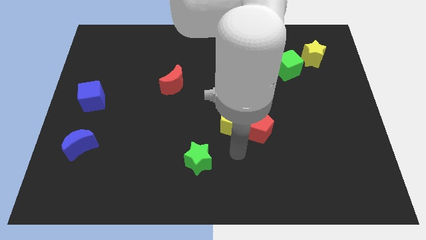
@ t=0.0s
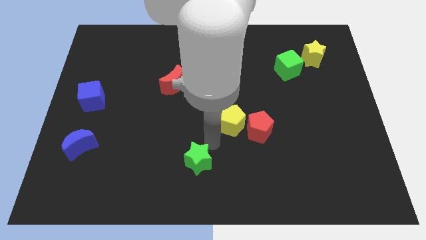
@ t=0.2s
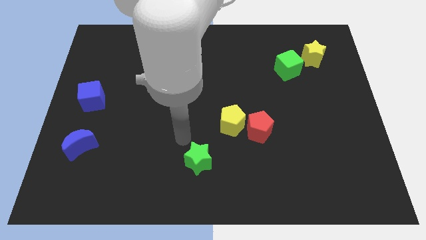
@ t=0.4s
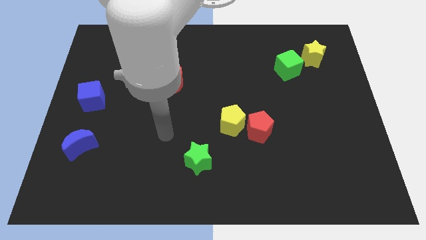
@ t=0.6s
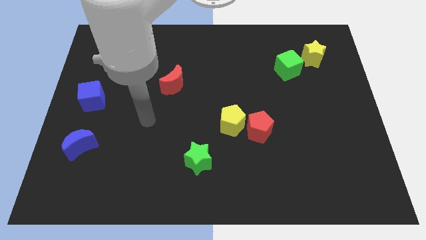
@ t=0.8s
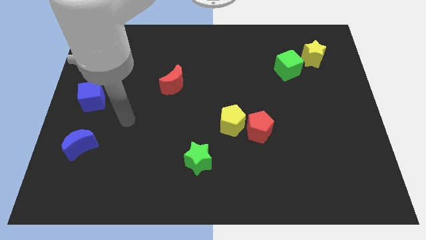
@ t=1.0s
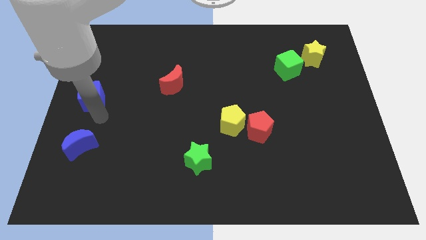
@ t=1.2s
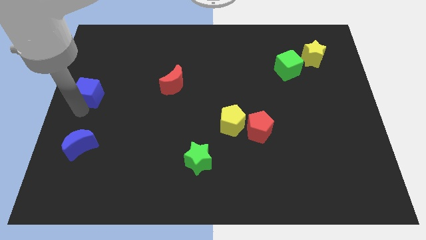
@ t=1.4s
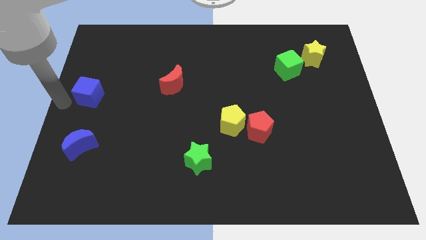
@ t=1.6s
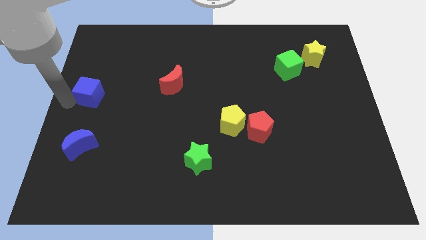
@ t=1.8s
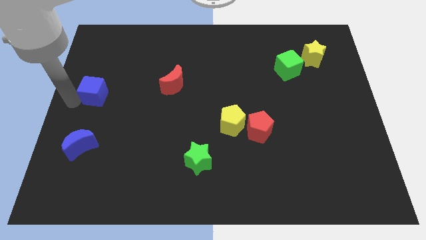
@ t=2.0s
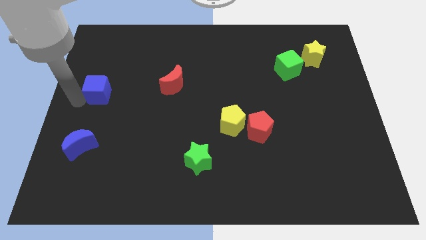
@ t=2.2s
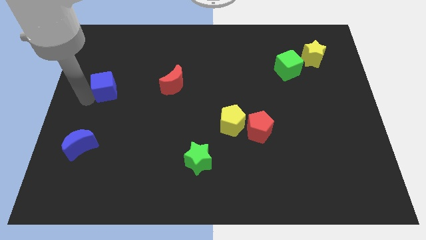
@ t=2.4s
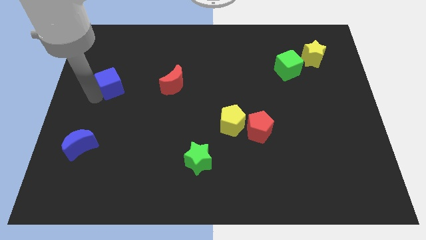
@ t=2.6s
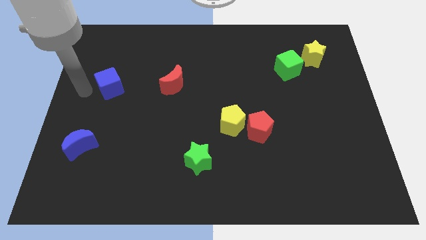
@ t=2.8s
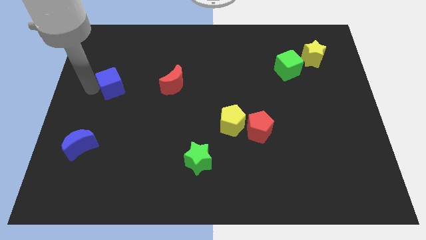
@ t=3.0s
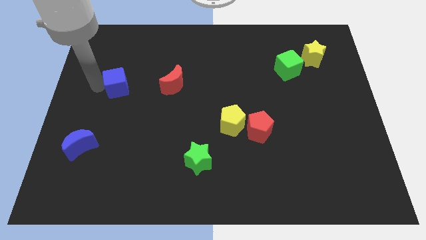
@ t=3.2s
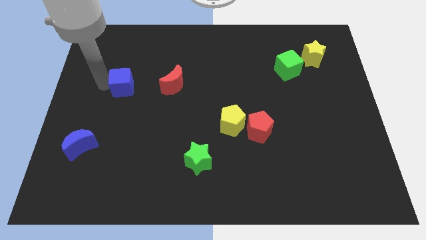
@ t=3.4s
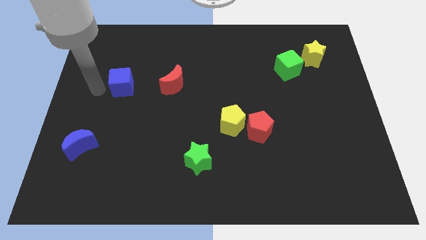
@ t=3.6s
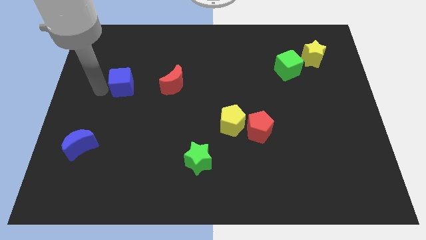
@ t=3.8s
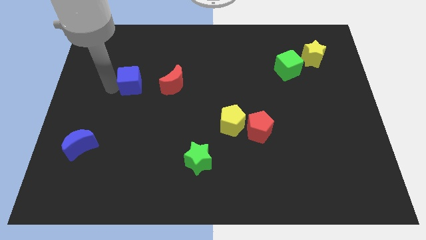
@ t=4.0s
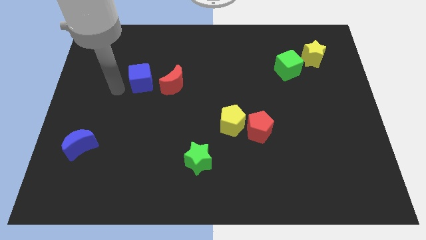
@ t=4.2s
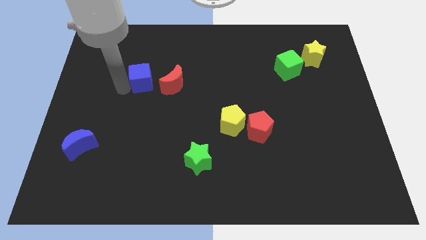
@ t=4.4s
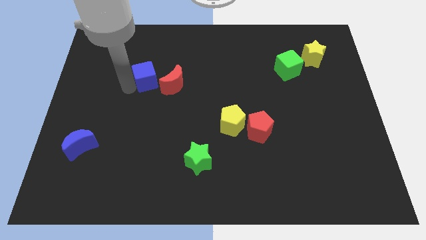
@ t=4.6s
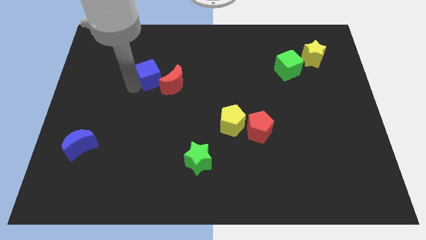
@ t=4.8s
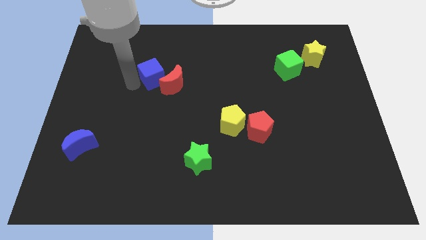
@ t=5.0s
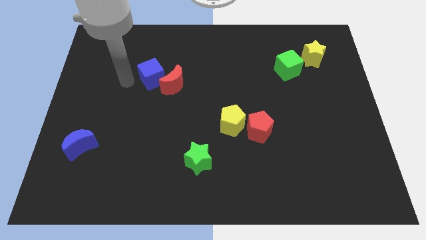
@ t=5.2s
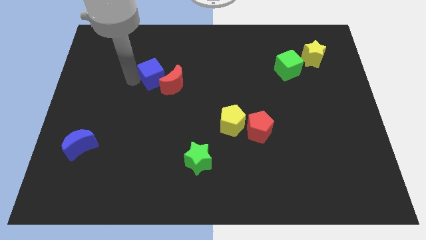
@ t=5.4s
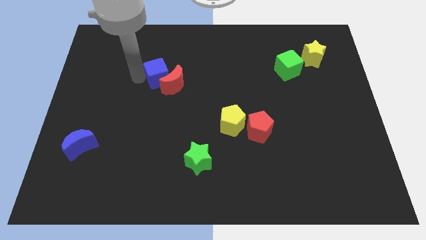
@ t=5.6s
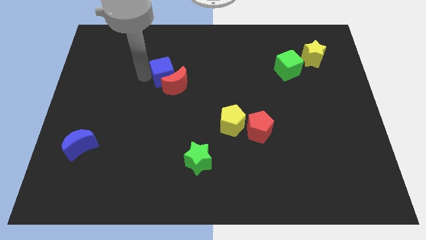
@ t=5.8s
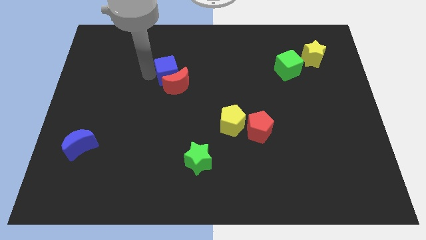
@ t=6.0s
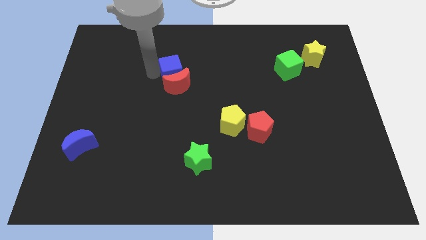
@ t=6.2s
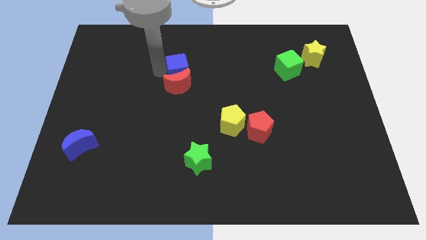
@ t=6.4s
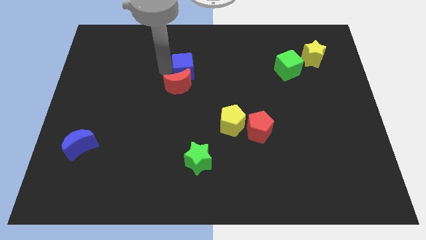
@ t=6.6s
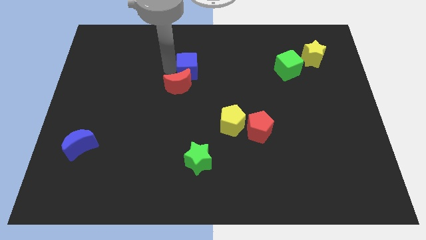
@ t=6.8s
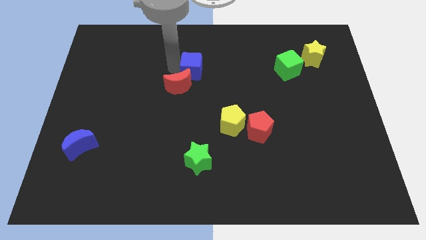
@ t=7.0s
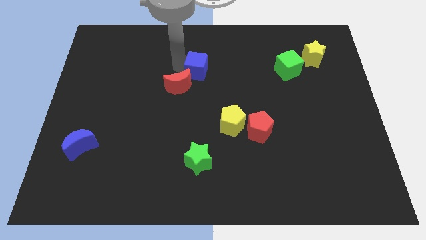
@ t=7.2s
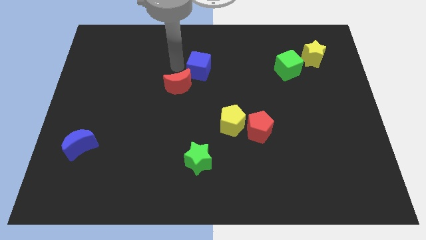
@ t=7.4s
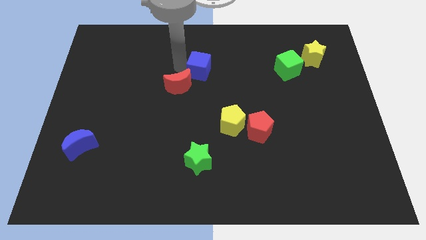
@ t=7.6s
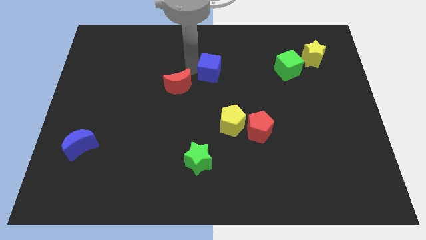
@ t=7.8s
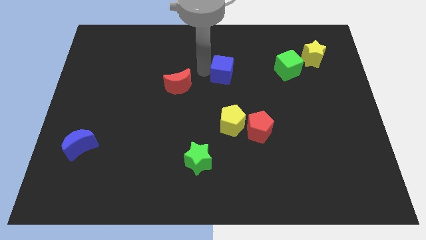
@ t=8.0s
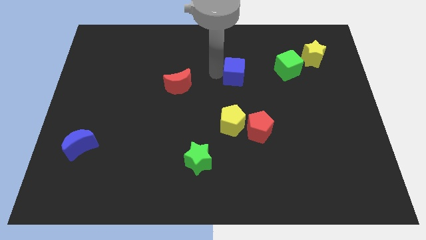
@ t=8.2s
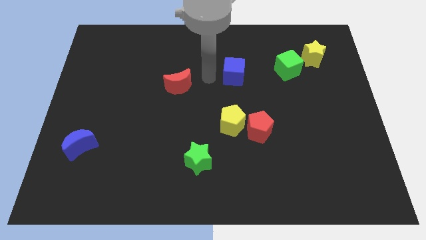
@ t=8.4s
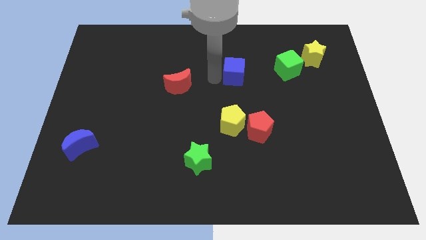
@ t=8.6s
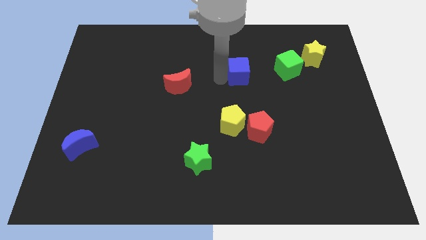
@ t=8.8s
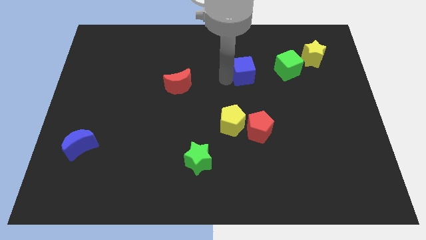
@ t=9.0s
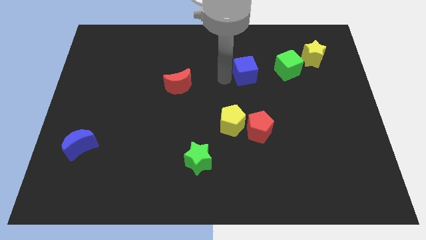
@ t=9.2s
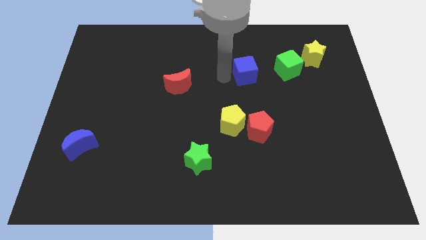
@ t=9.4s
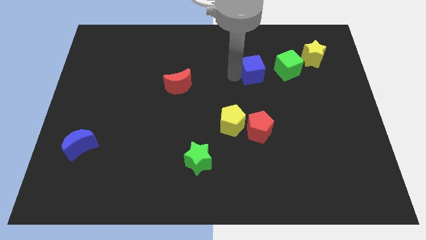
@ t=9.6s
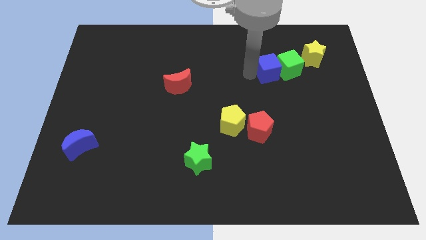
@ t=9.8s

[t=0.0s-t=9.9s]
move the blue cube close to the green cube

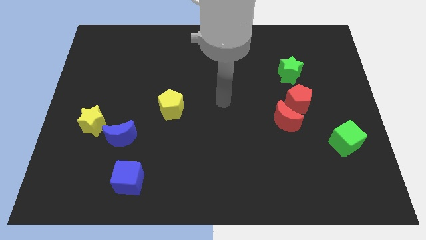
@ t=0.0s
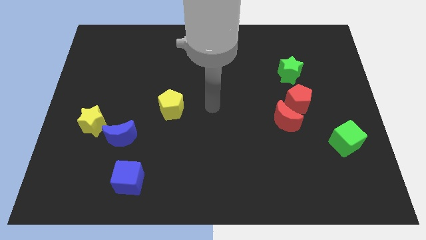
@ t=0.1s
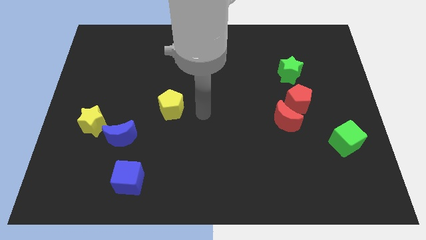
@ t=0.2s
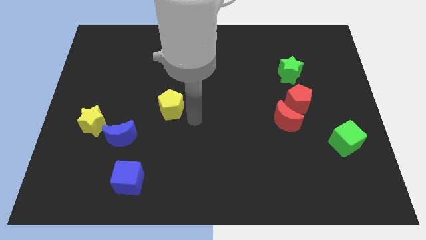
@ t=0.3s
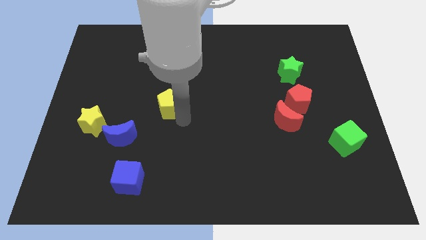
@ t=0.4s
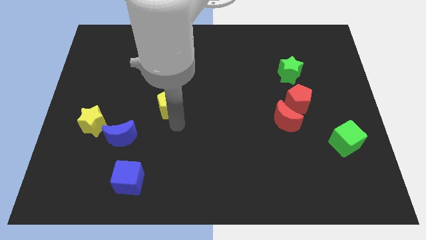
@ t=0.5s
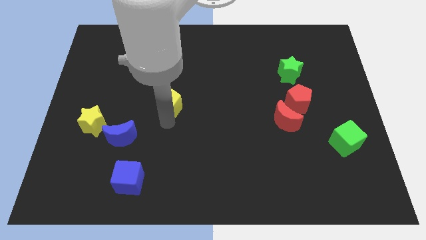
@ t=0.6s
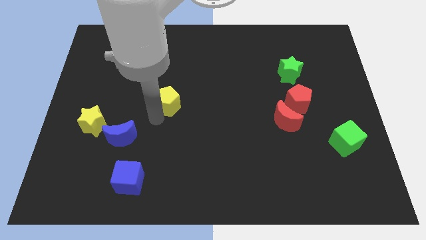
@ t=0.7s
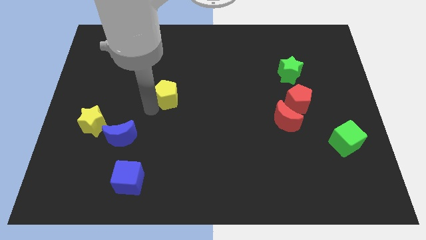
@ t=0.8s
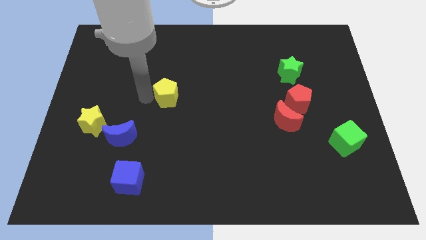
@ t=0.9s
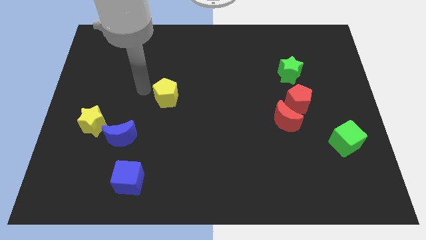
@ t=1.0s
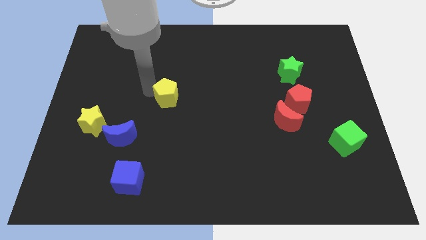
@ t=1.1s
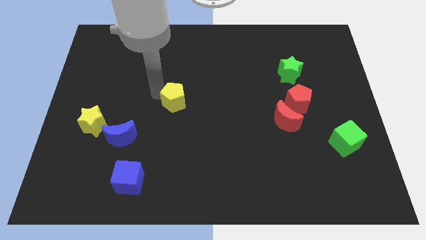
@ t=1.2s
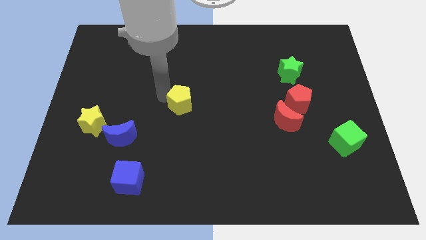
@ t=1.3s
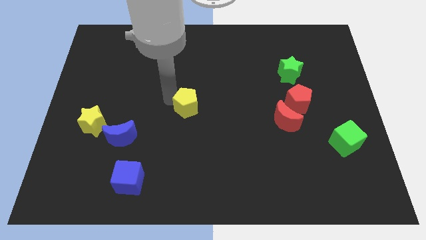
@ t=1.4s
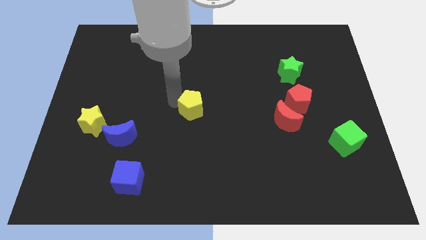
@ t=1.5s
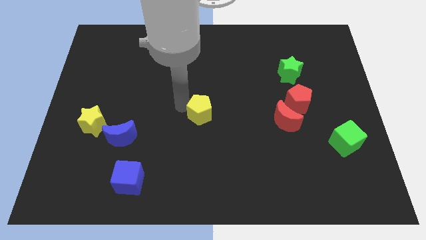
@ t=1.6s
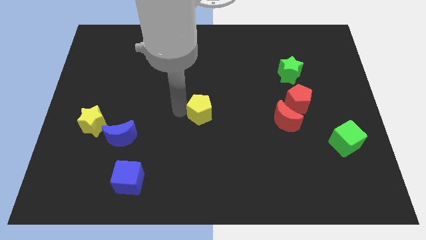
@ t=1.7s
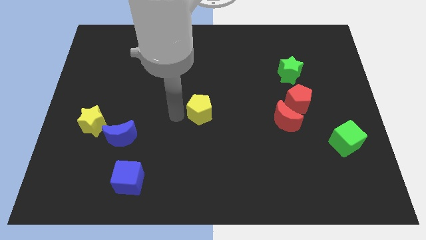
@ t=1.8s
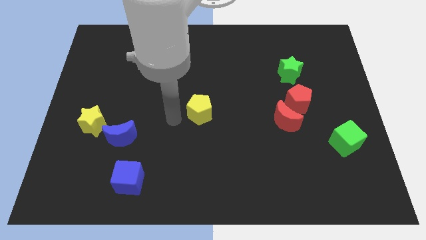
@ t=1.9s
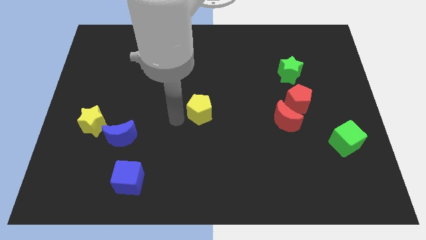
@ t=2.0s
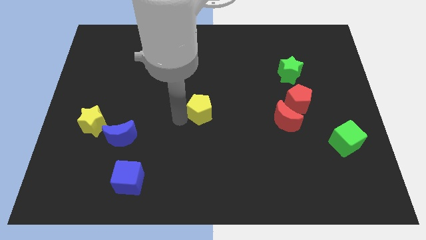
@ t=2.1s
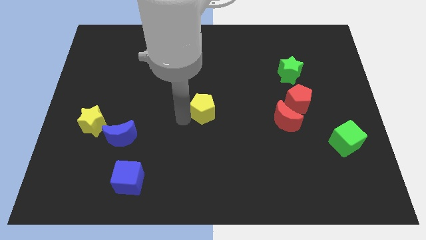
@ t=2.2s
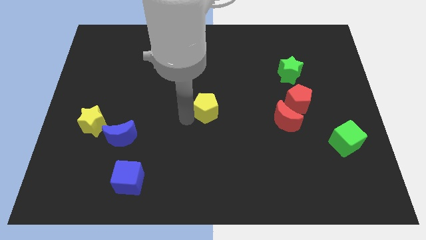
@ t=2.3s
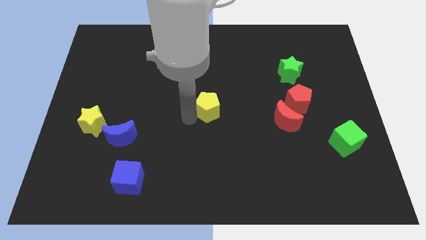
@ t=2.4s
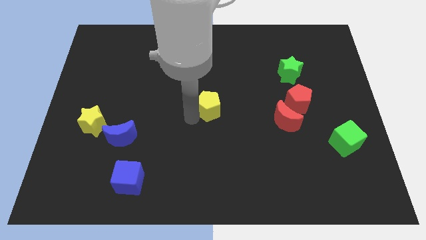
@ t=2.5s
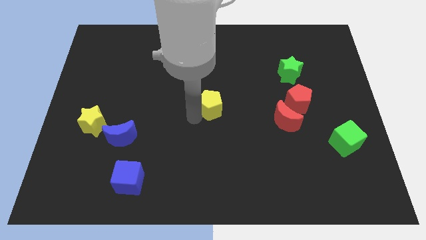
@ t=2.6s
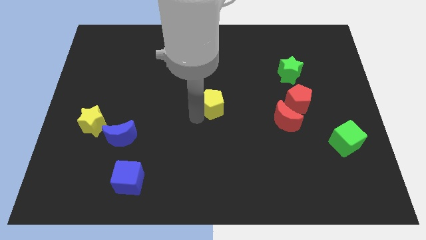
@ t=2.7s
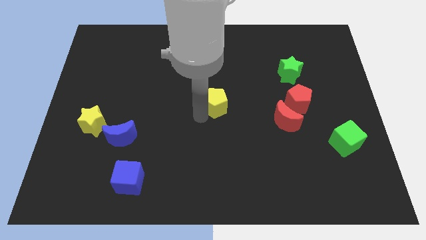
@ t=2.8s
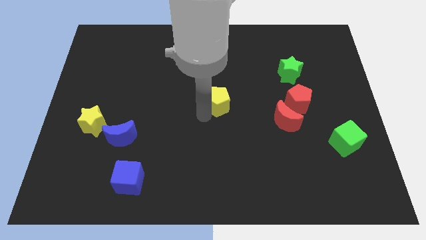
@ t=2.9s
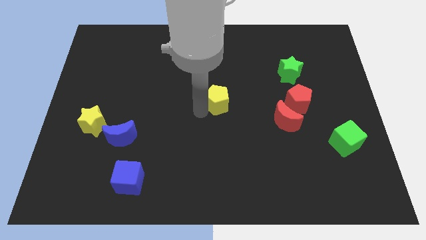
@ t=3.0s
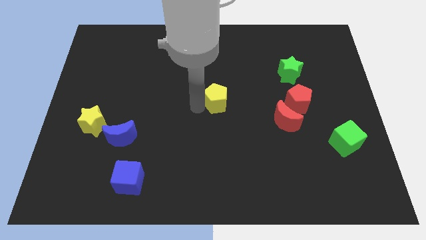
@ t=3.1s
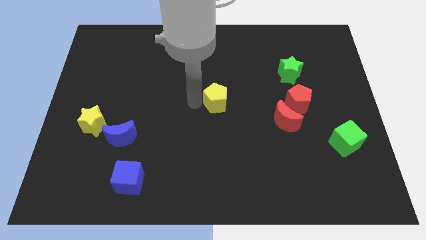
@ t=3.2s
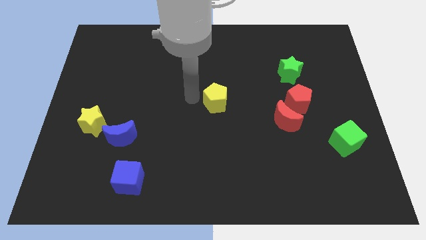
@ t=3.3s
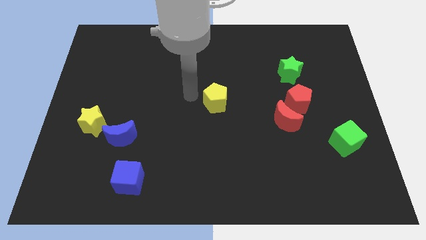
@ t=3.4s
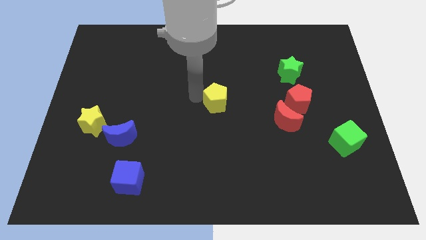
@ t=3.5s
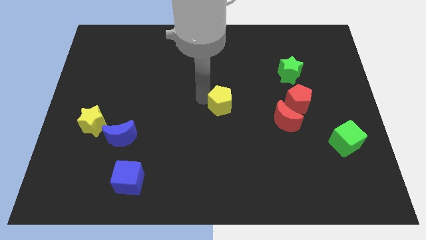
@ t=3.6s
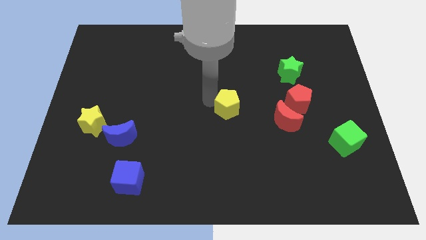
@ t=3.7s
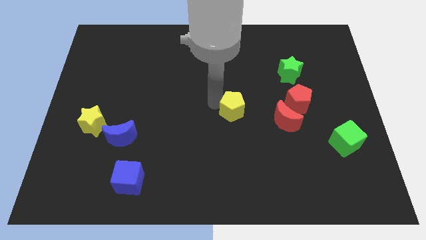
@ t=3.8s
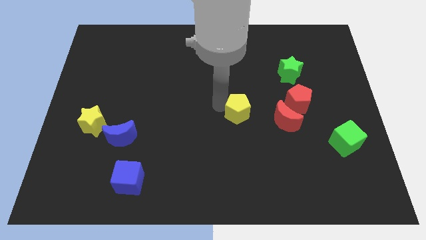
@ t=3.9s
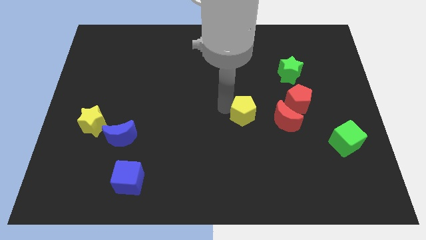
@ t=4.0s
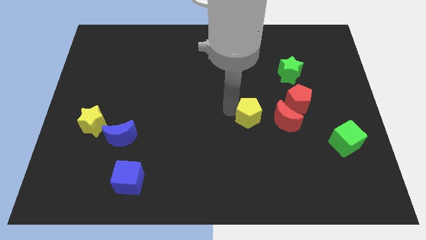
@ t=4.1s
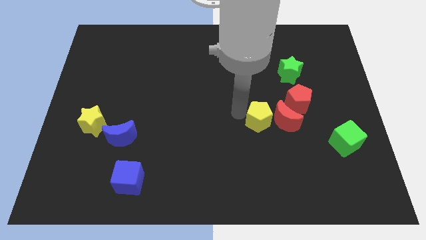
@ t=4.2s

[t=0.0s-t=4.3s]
put the yellow pentagon towards the red moon
